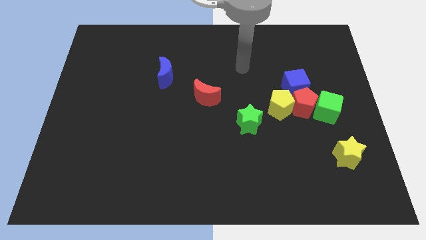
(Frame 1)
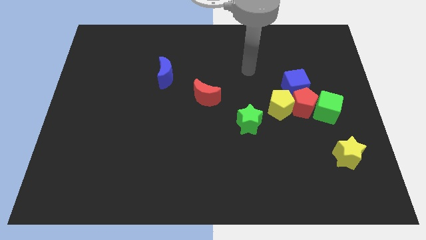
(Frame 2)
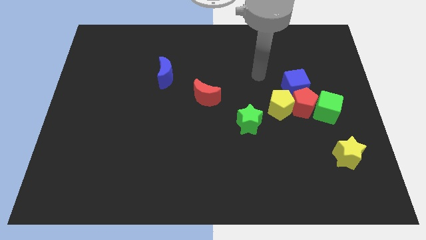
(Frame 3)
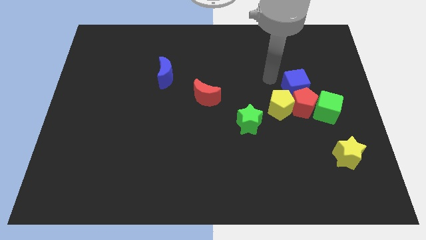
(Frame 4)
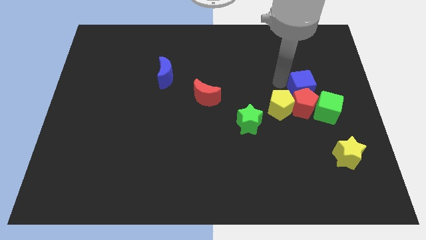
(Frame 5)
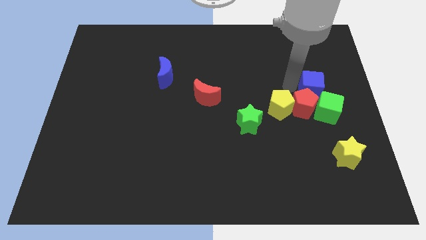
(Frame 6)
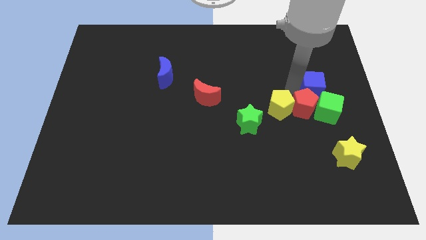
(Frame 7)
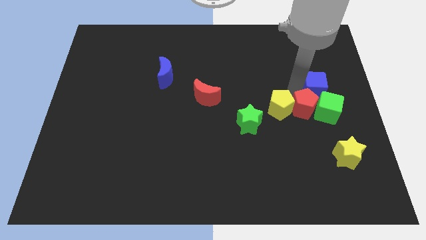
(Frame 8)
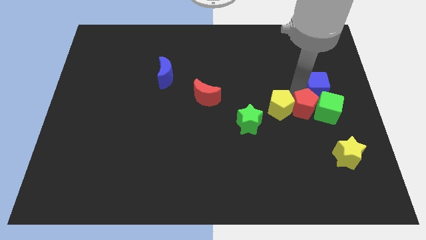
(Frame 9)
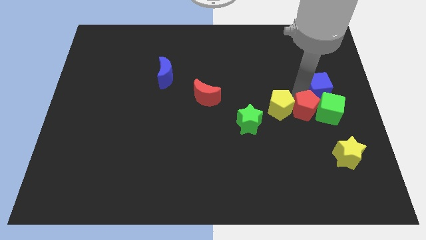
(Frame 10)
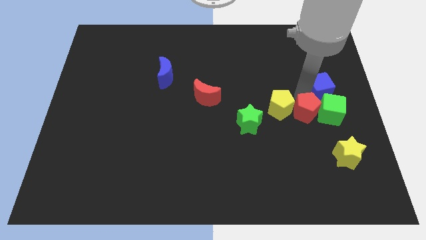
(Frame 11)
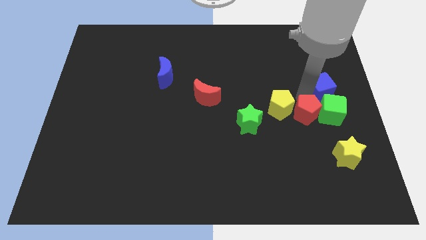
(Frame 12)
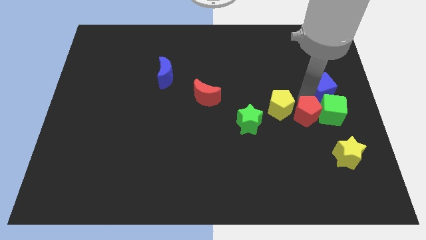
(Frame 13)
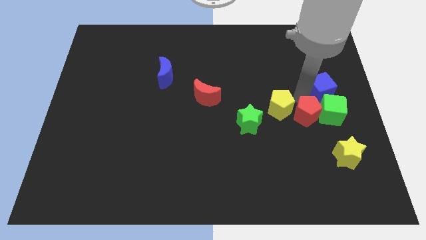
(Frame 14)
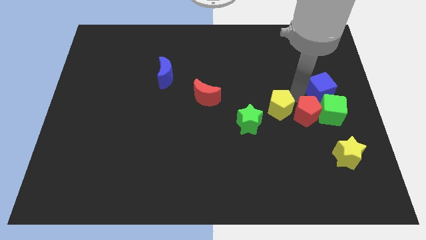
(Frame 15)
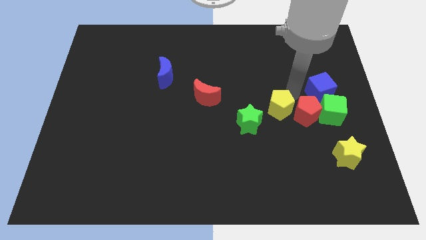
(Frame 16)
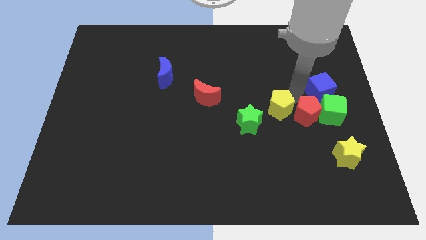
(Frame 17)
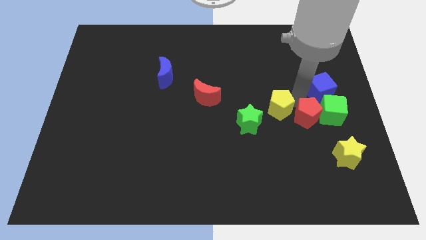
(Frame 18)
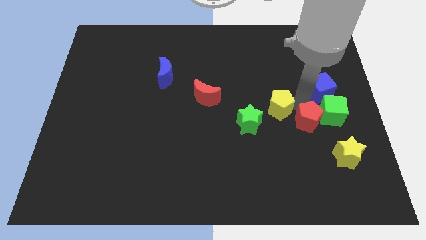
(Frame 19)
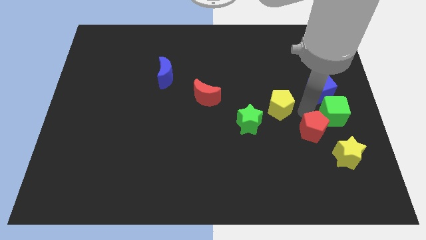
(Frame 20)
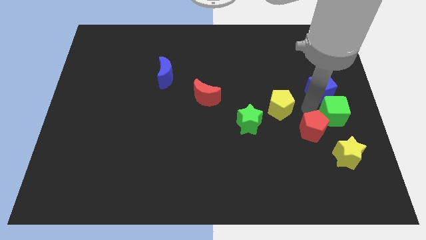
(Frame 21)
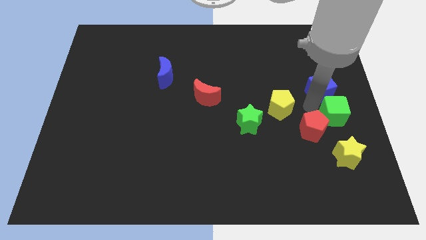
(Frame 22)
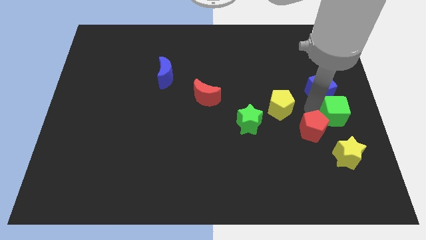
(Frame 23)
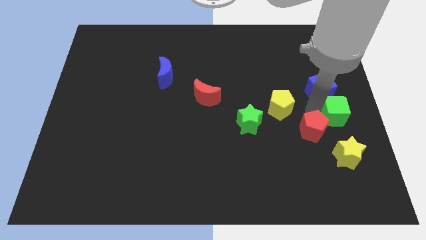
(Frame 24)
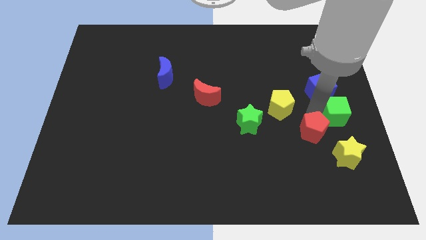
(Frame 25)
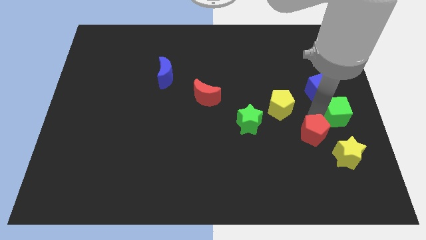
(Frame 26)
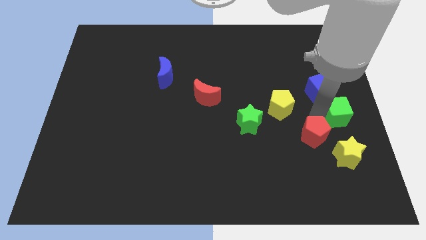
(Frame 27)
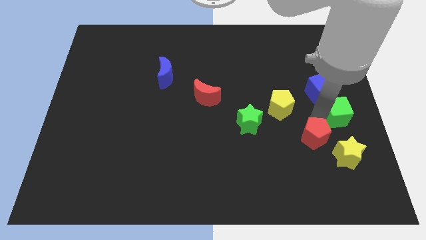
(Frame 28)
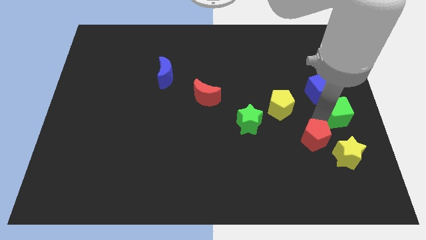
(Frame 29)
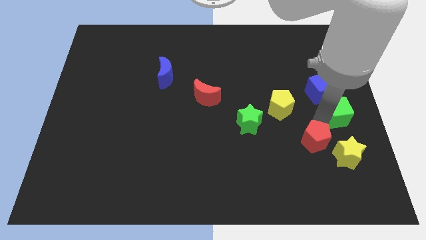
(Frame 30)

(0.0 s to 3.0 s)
pull the red pentagon apart from the clump

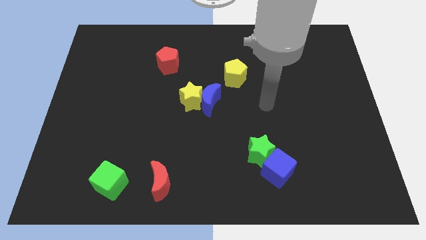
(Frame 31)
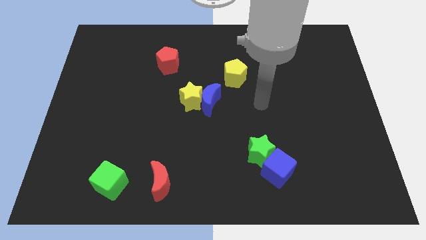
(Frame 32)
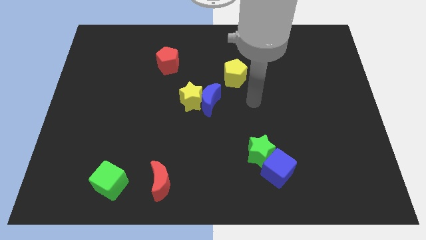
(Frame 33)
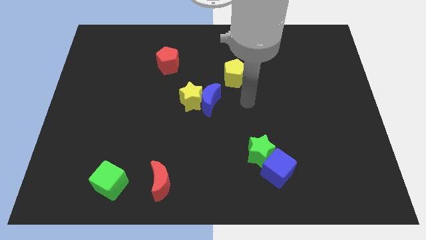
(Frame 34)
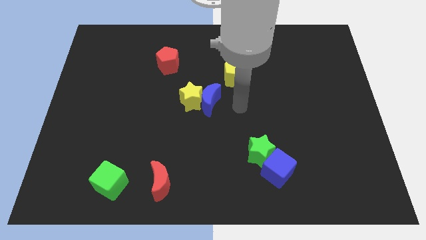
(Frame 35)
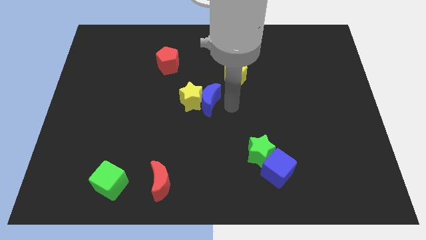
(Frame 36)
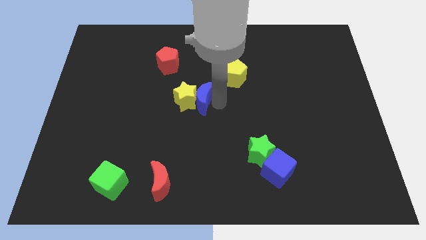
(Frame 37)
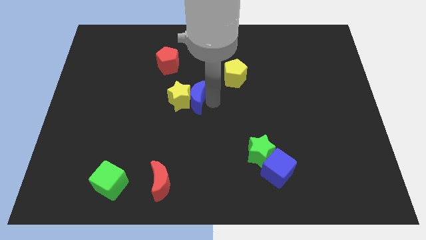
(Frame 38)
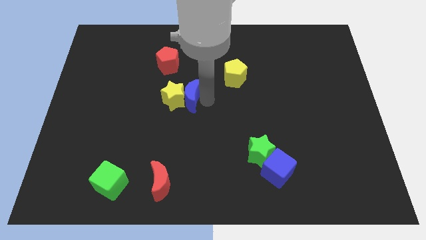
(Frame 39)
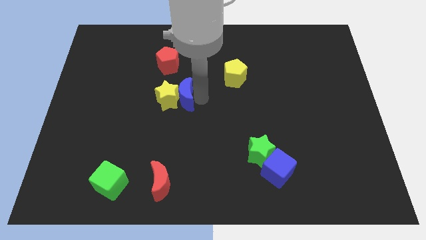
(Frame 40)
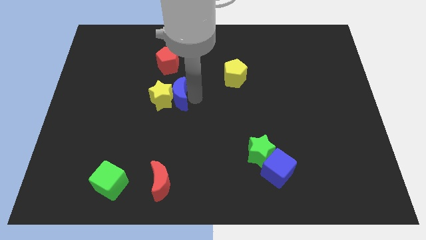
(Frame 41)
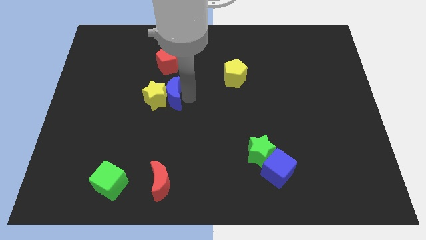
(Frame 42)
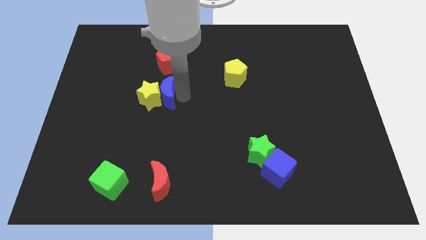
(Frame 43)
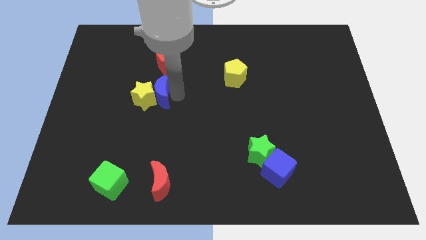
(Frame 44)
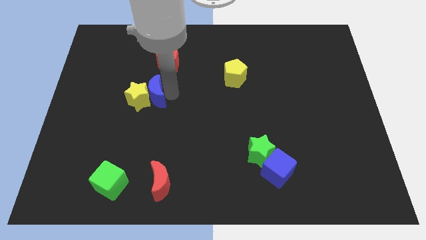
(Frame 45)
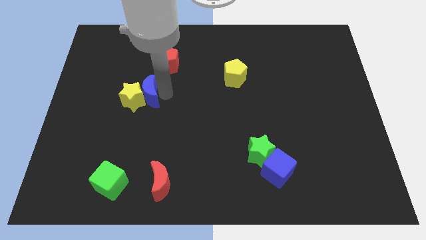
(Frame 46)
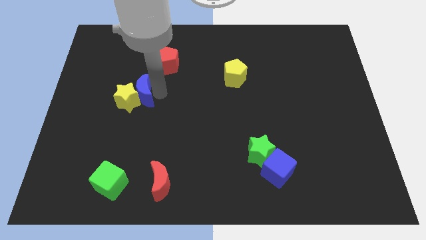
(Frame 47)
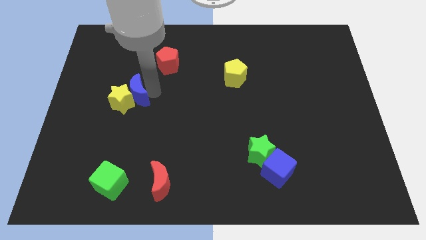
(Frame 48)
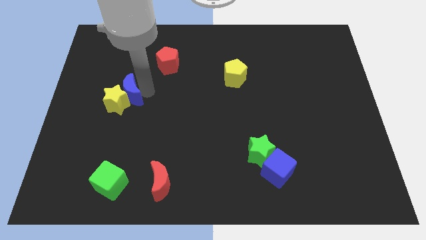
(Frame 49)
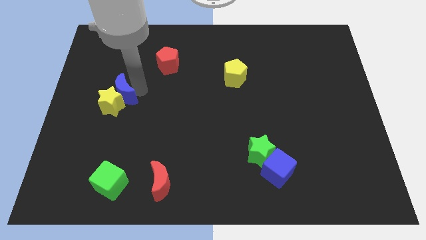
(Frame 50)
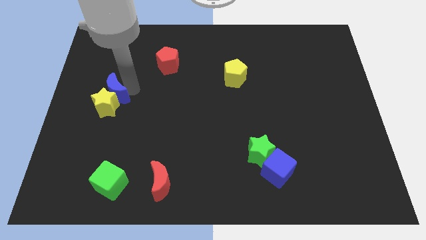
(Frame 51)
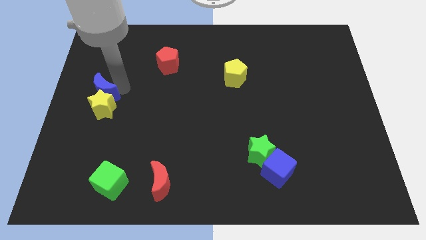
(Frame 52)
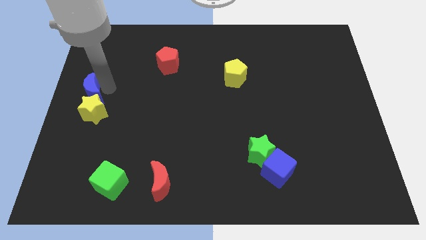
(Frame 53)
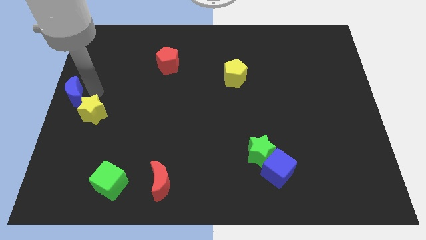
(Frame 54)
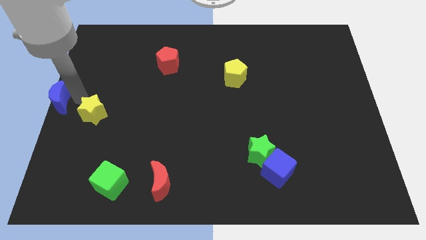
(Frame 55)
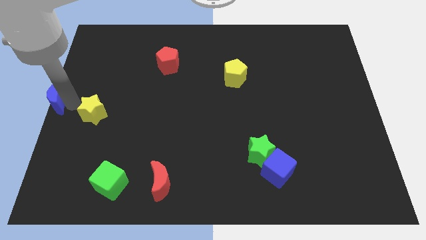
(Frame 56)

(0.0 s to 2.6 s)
move the yellow star away from the blue moon

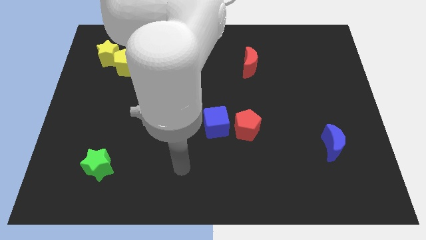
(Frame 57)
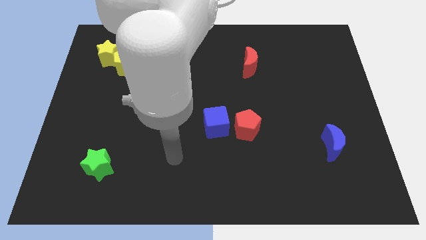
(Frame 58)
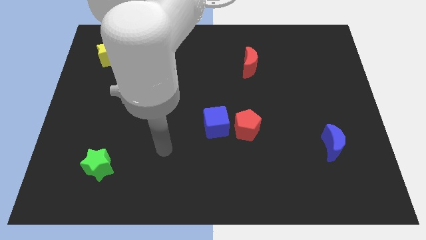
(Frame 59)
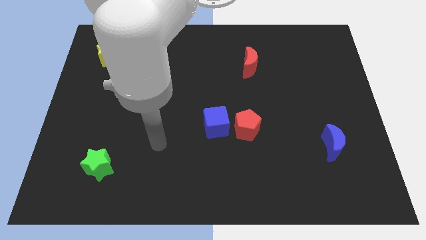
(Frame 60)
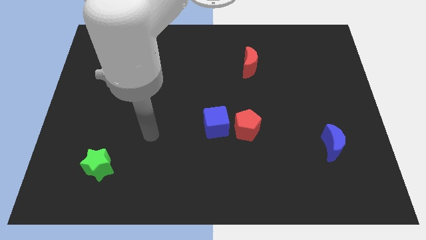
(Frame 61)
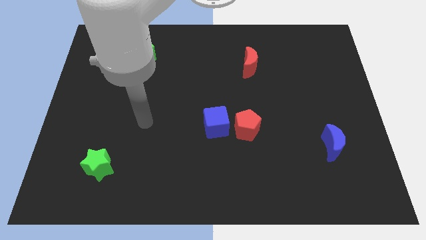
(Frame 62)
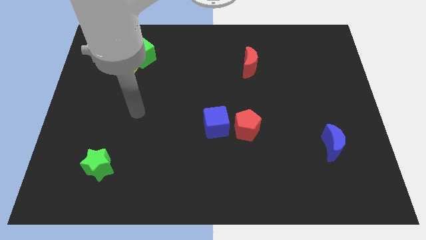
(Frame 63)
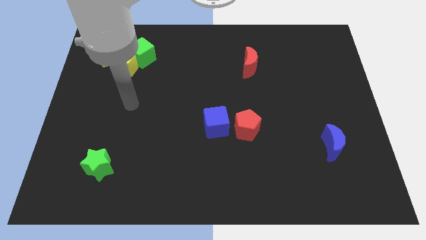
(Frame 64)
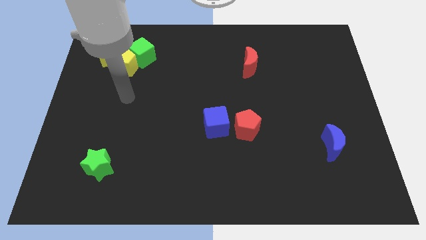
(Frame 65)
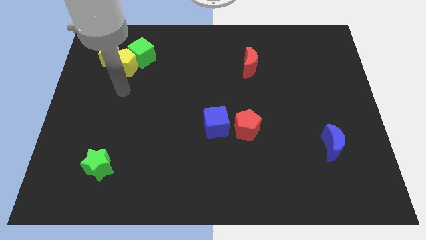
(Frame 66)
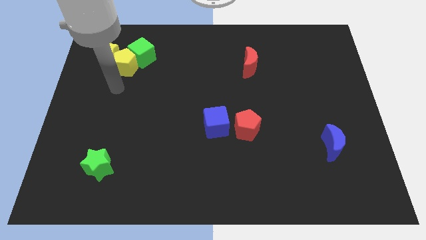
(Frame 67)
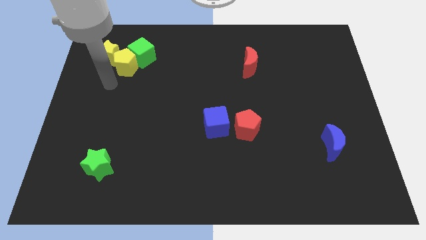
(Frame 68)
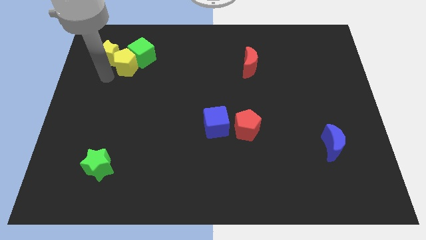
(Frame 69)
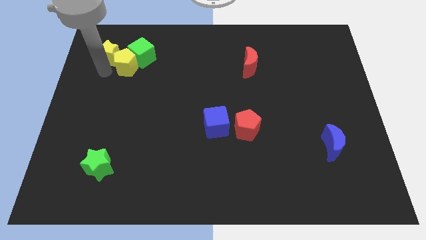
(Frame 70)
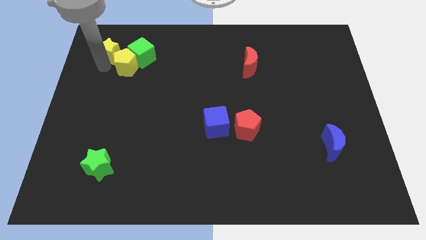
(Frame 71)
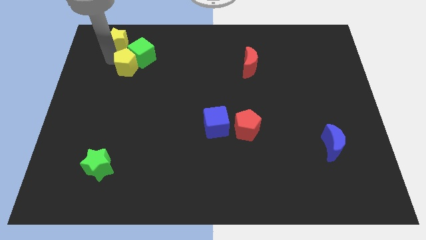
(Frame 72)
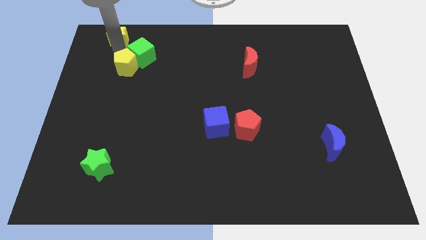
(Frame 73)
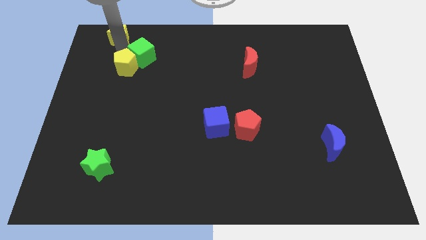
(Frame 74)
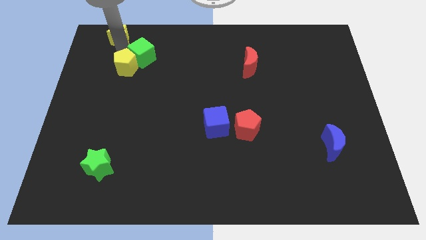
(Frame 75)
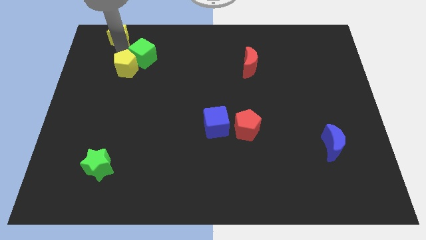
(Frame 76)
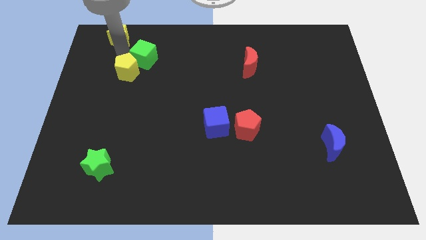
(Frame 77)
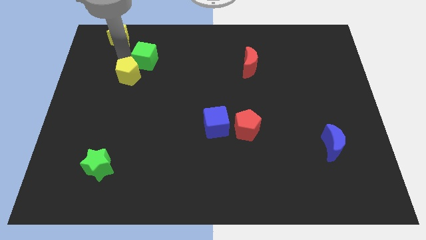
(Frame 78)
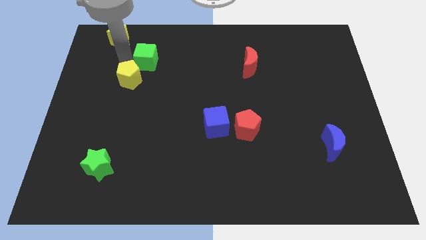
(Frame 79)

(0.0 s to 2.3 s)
separate the yellow pentagon from the green cube and yellow star

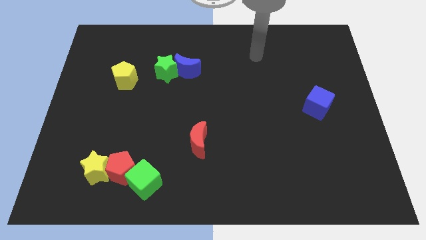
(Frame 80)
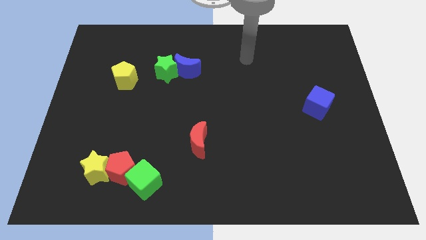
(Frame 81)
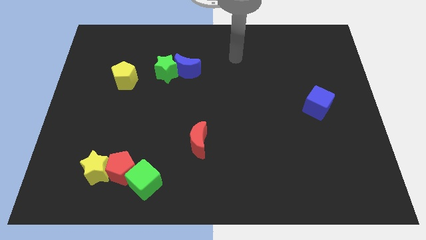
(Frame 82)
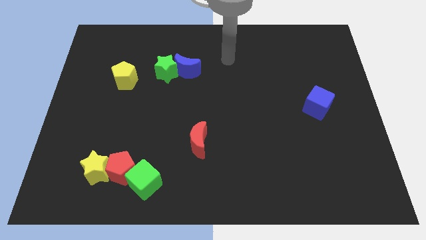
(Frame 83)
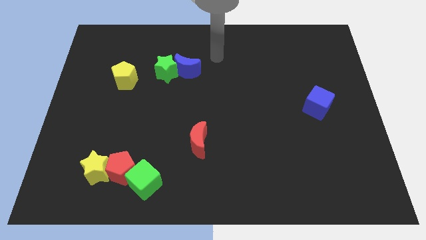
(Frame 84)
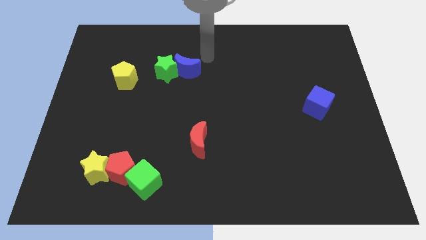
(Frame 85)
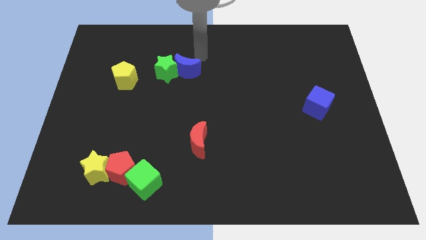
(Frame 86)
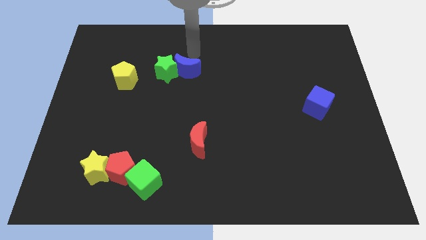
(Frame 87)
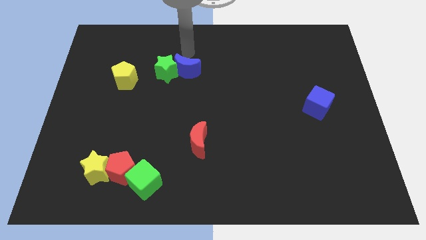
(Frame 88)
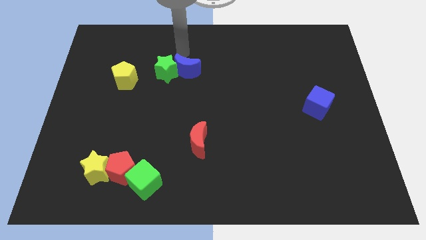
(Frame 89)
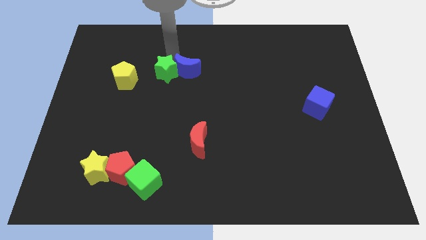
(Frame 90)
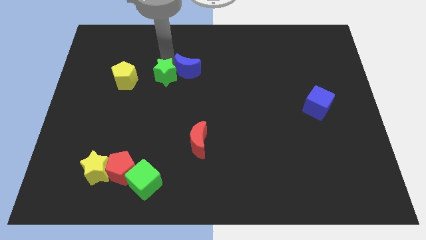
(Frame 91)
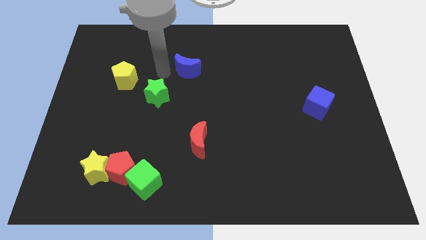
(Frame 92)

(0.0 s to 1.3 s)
pull the blue moon apart from the green star

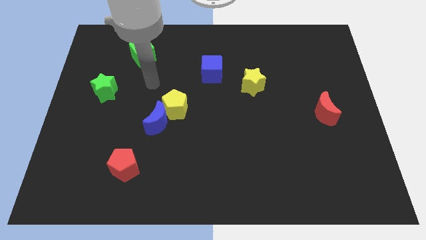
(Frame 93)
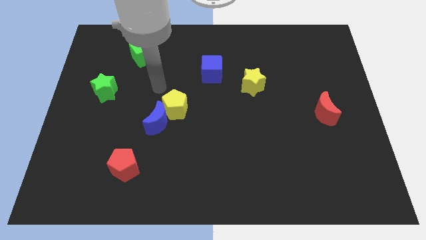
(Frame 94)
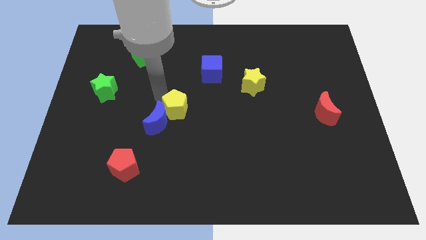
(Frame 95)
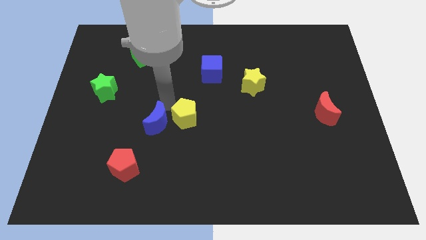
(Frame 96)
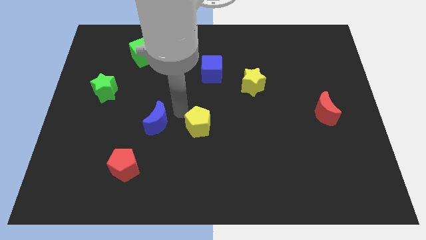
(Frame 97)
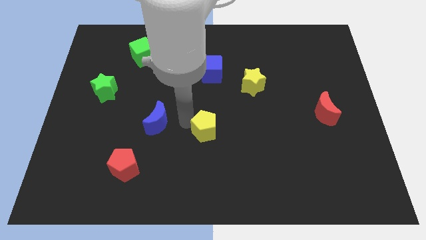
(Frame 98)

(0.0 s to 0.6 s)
move the blue moon away from the yellow pentagon
